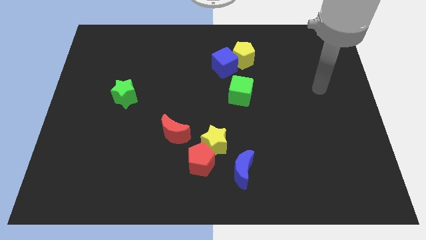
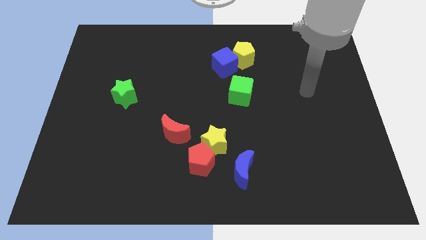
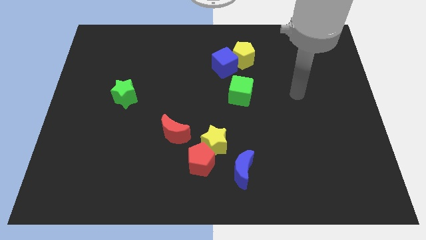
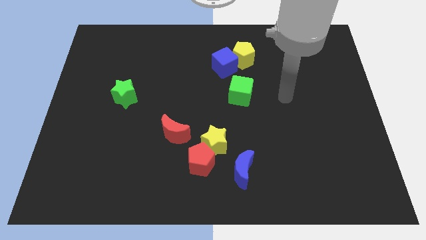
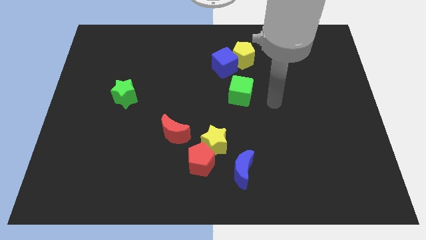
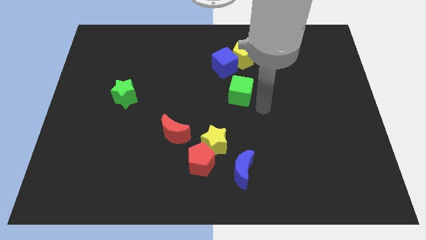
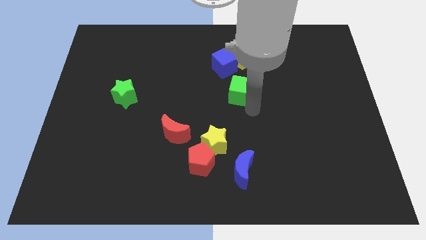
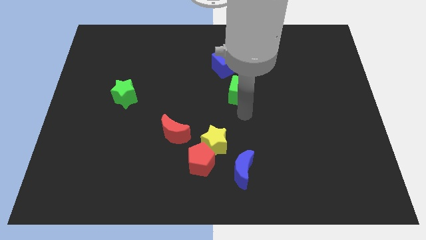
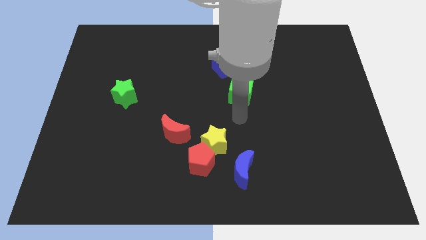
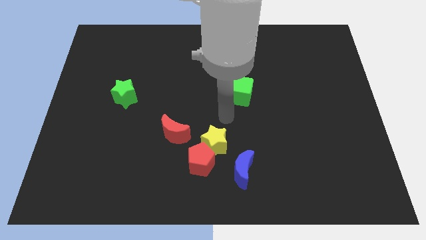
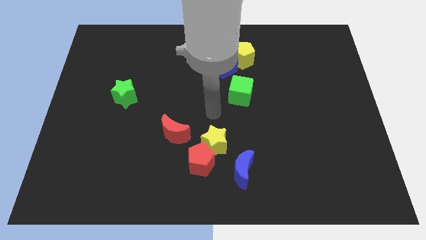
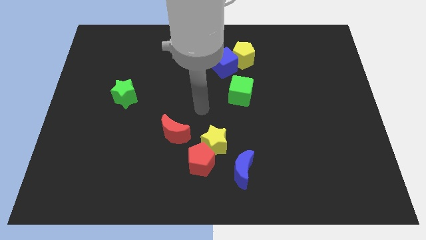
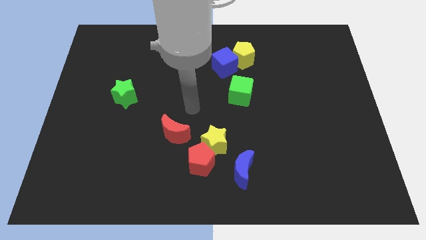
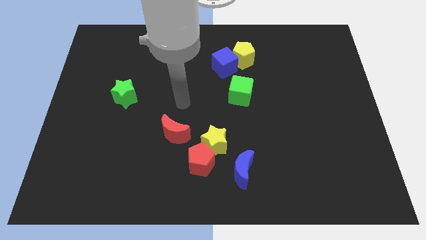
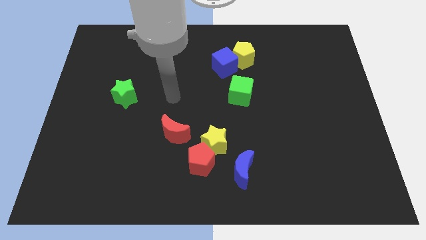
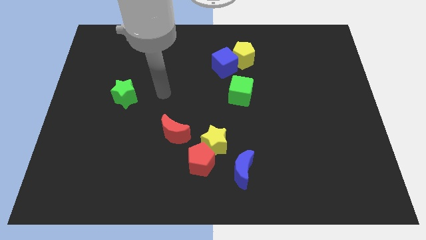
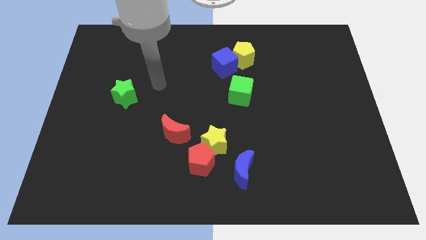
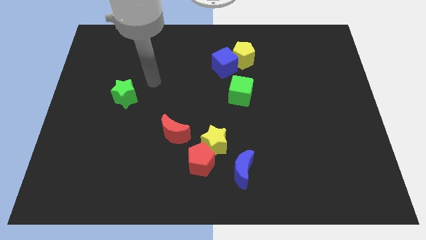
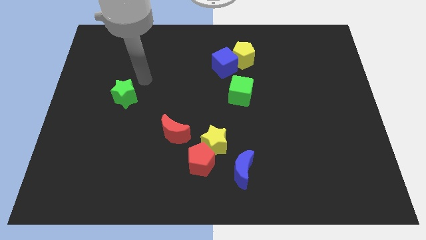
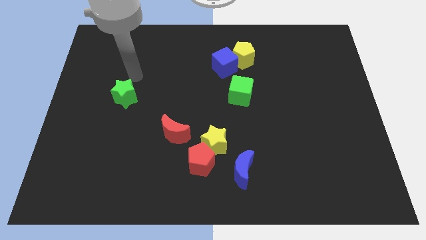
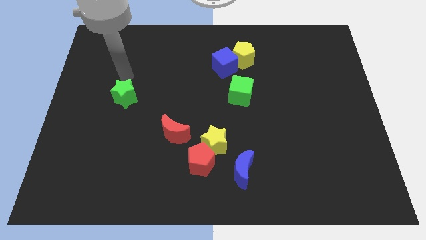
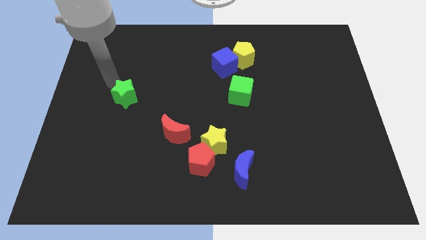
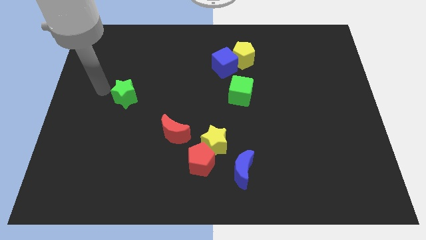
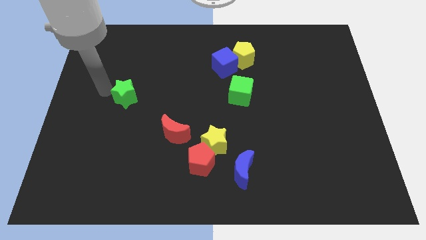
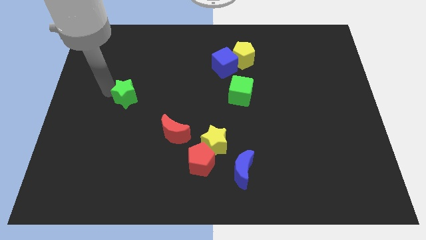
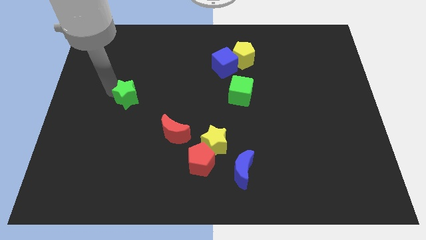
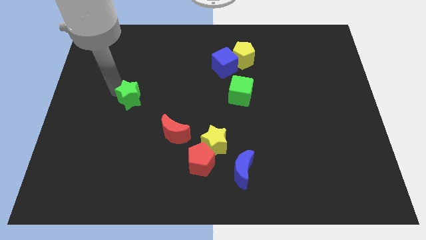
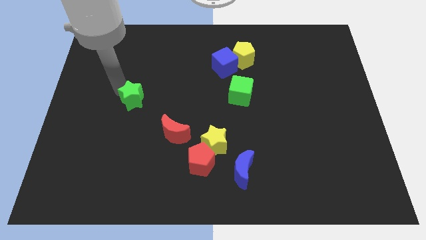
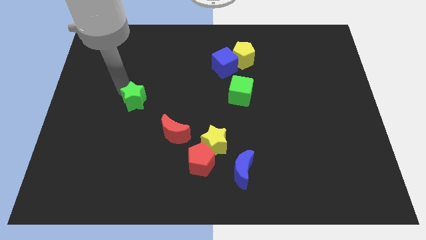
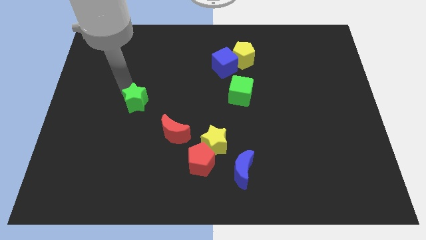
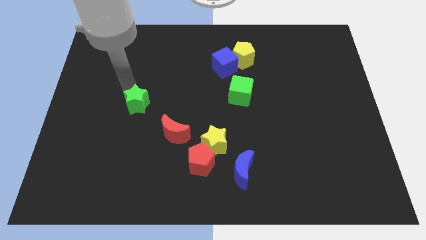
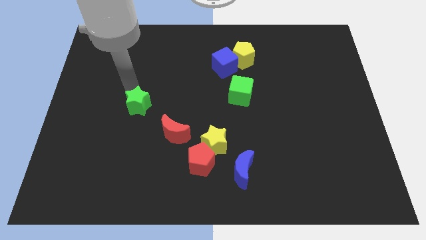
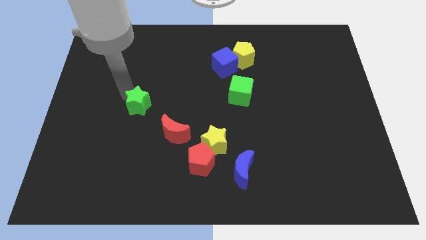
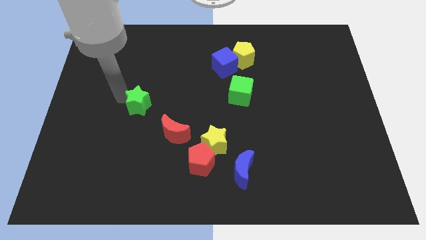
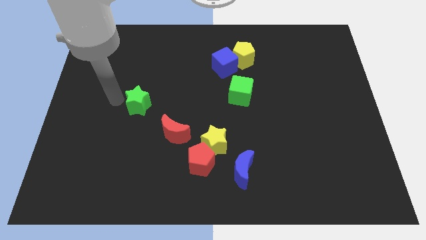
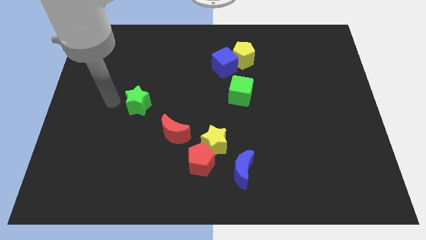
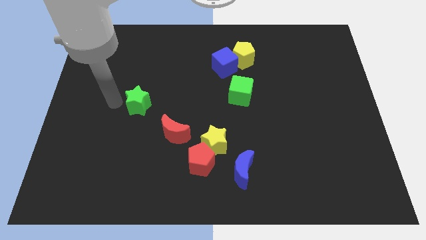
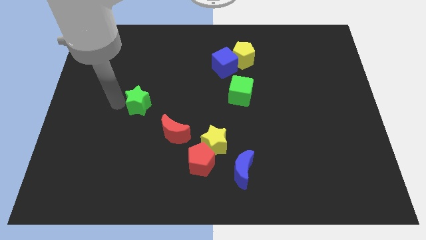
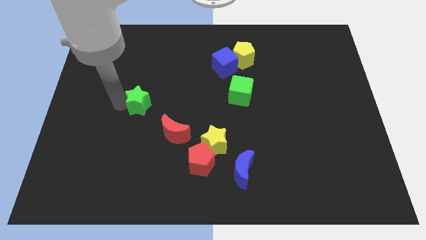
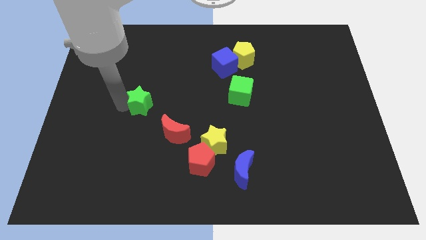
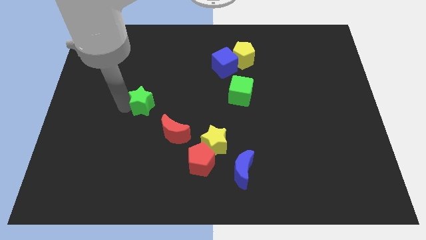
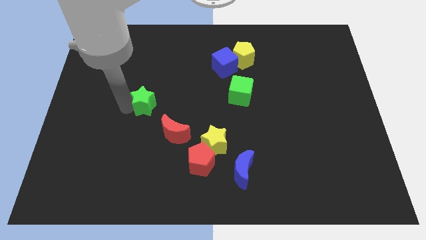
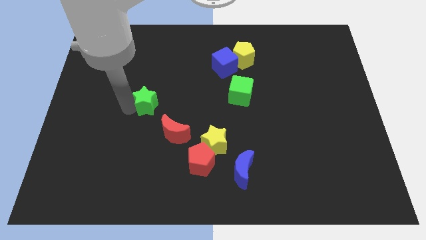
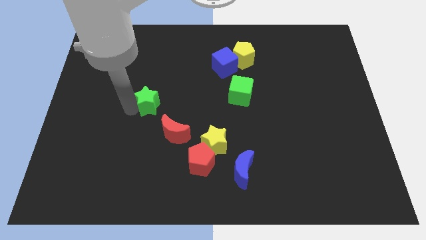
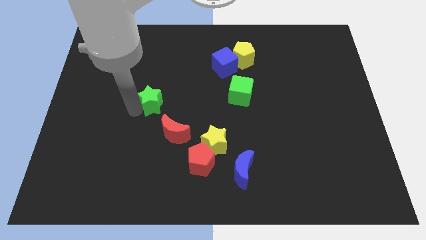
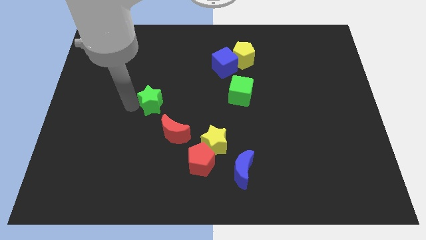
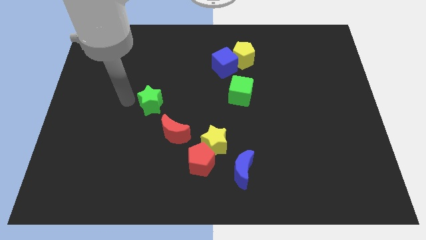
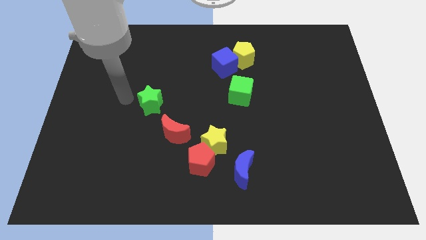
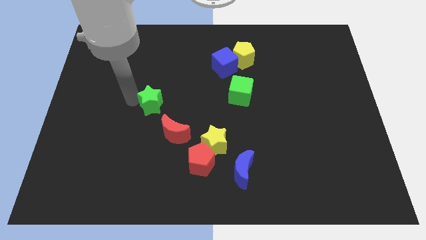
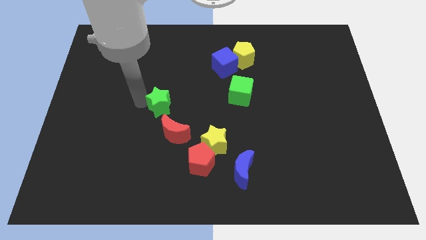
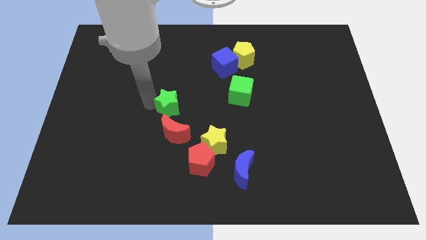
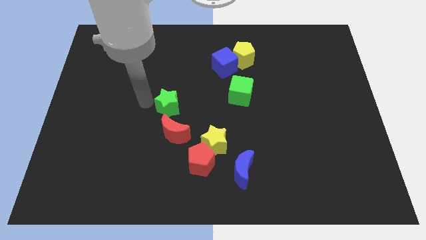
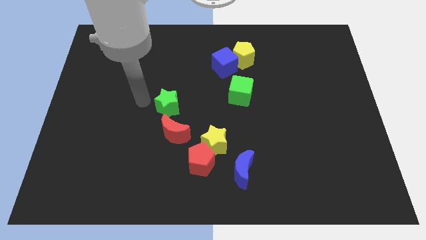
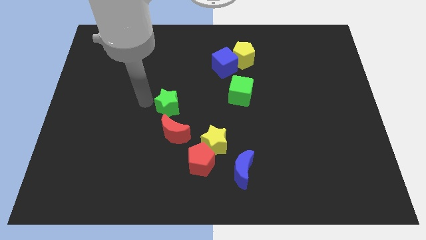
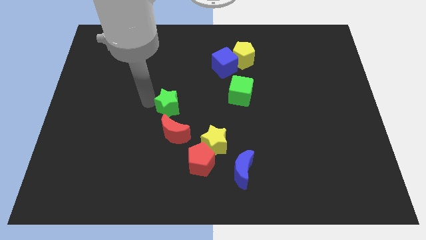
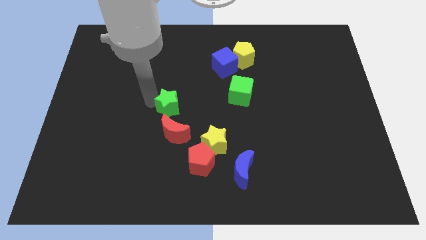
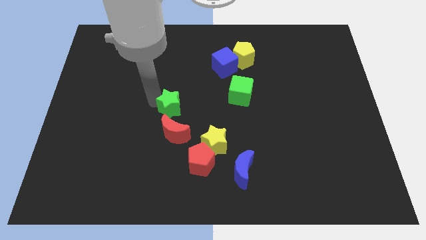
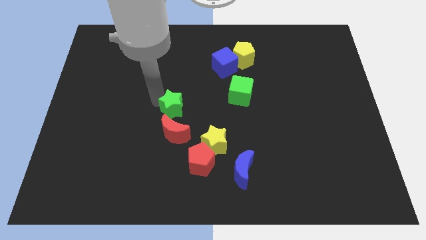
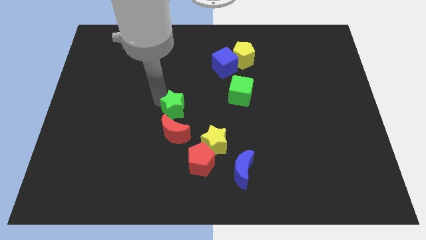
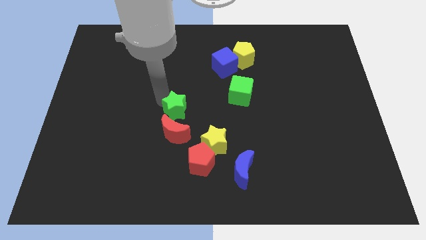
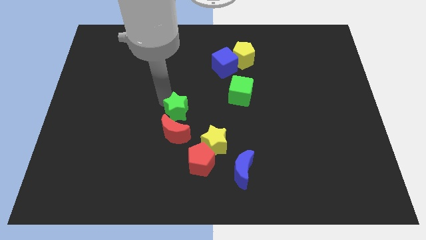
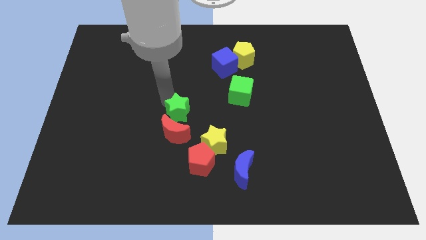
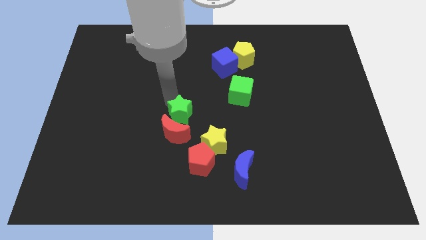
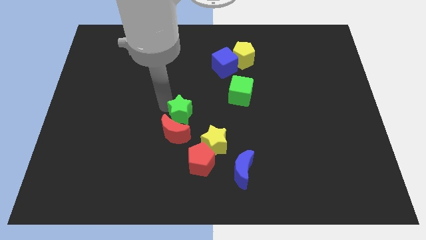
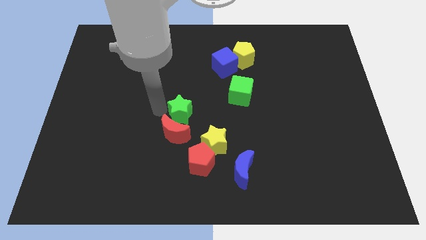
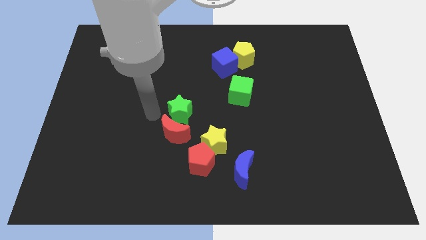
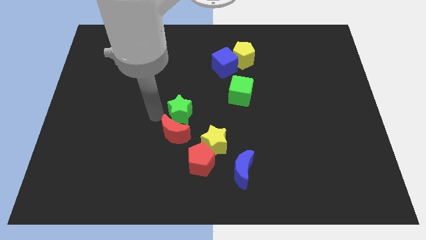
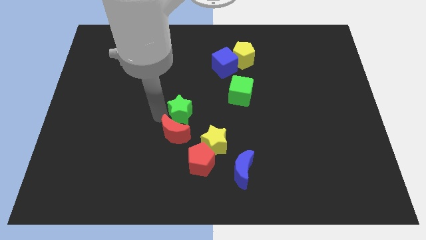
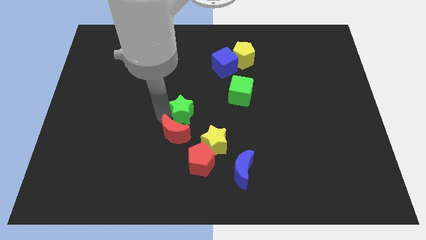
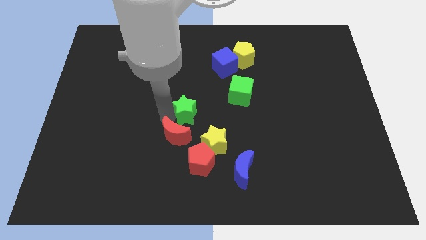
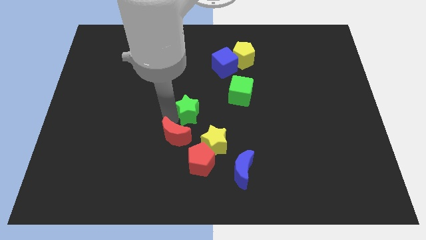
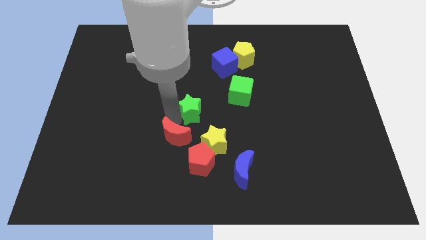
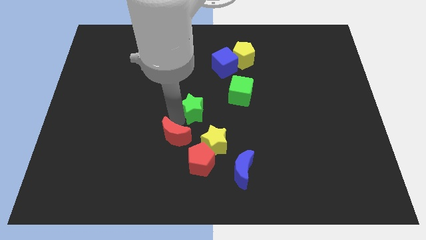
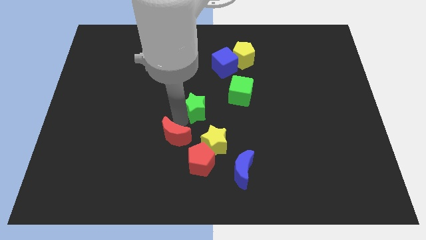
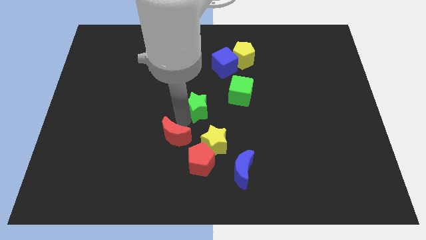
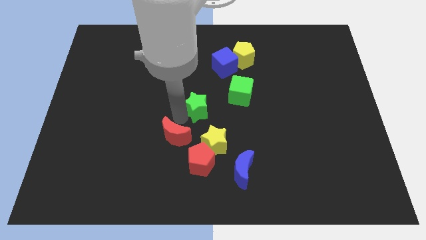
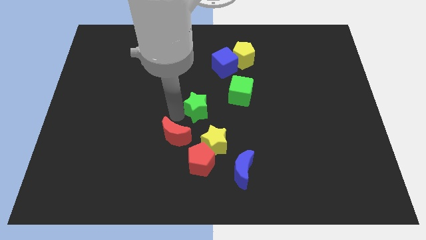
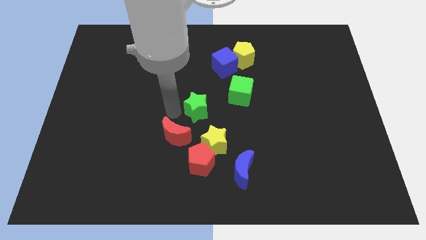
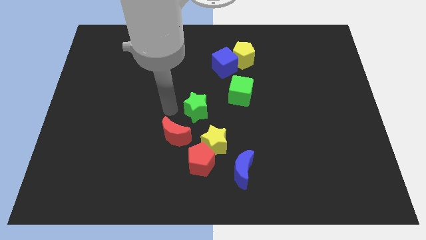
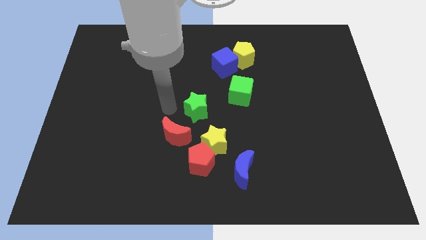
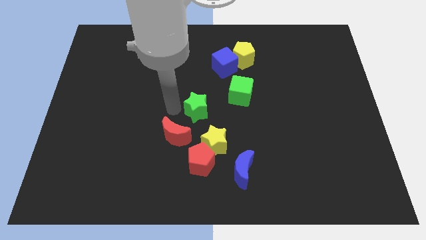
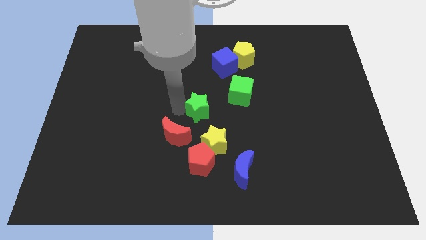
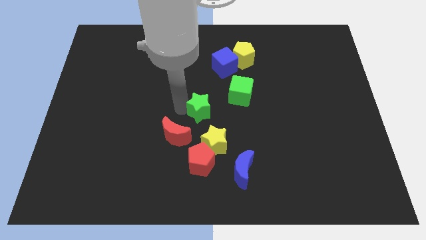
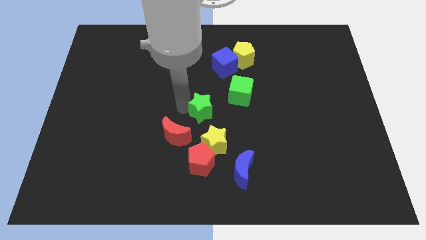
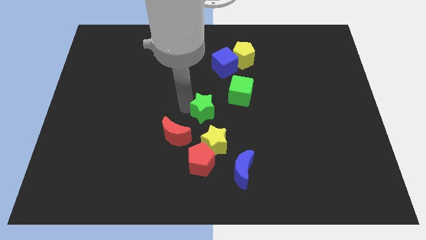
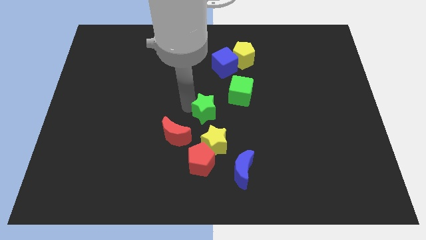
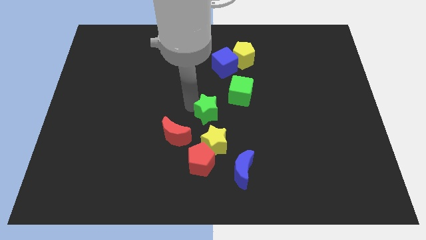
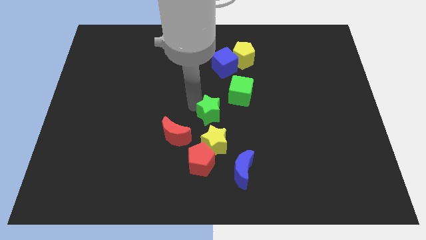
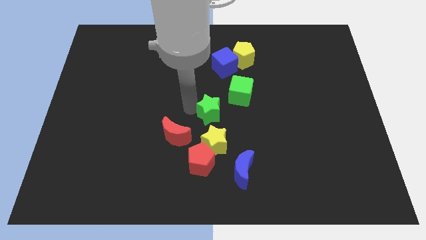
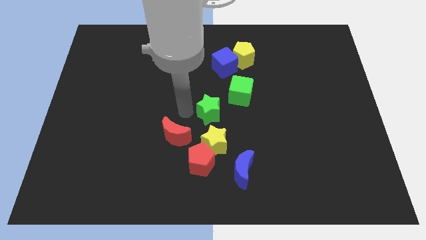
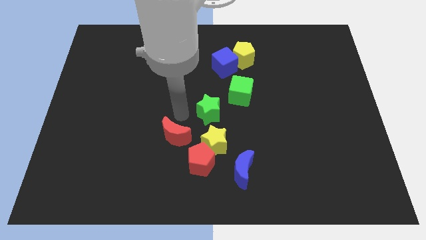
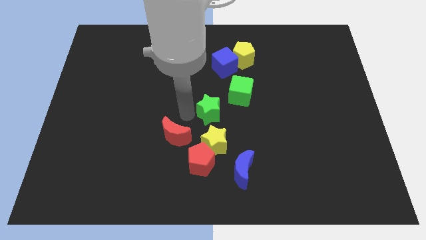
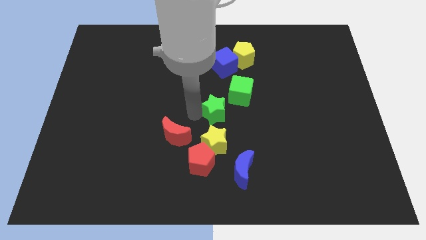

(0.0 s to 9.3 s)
slide the green star to the right
